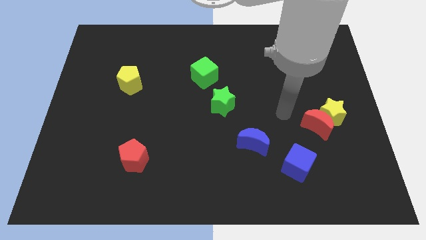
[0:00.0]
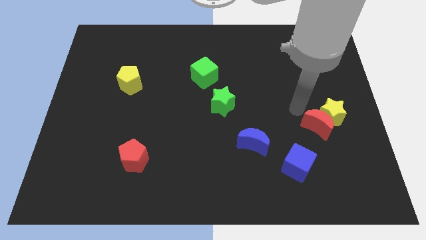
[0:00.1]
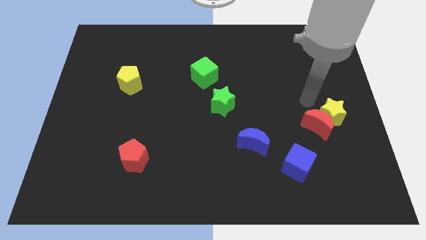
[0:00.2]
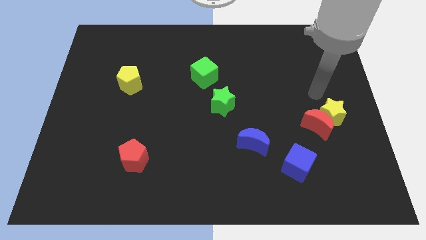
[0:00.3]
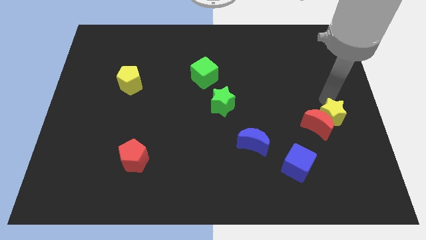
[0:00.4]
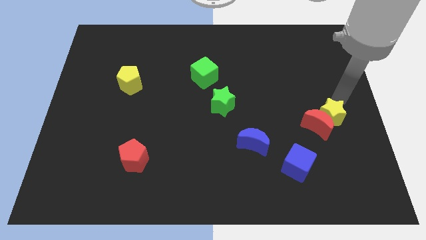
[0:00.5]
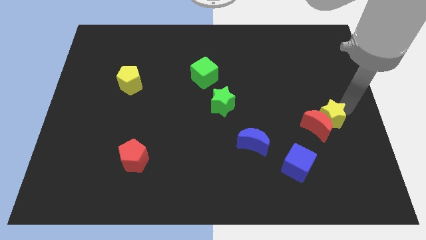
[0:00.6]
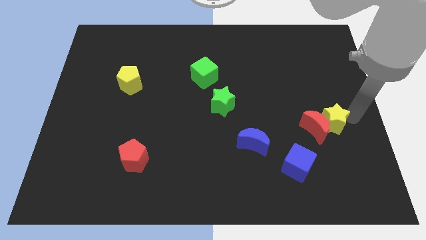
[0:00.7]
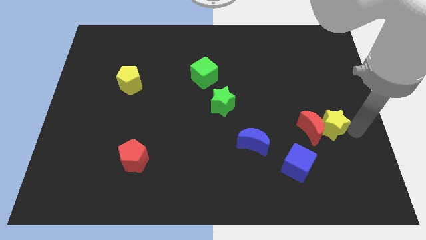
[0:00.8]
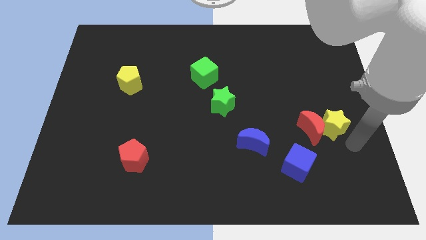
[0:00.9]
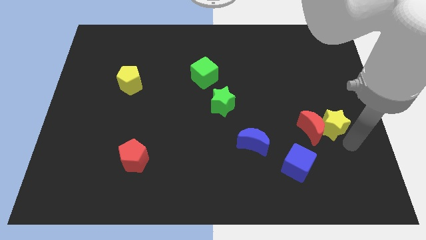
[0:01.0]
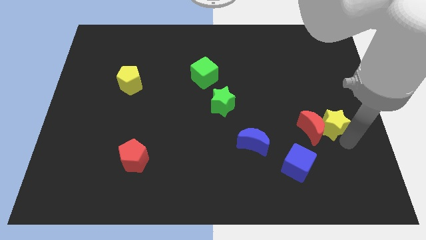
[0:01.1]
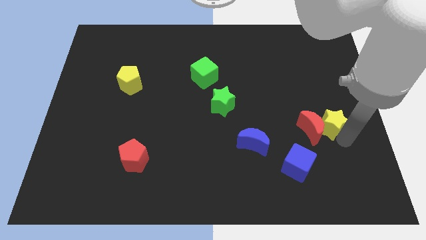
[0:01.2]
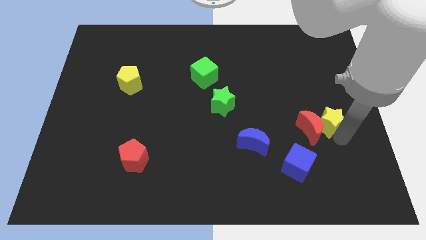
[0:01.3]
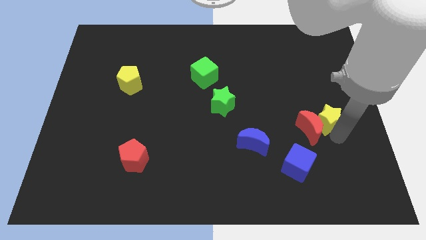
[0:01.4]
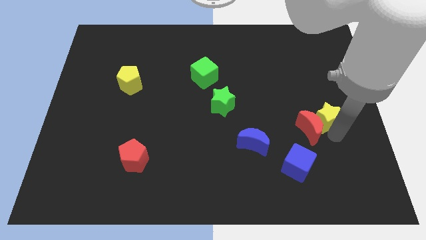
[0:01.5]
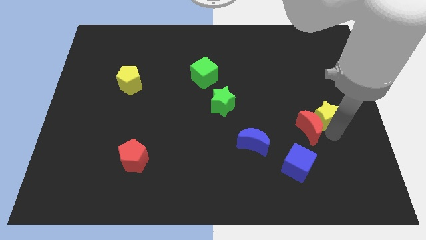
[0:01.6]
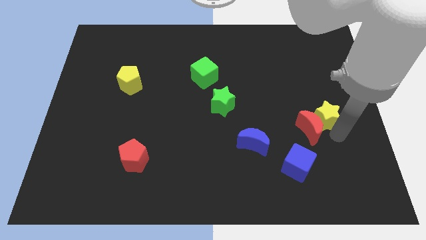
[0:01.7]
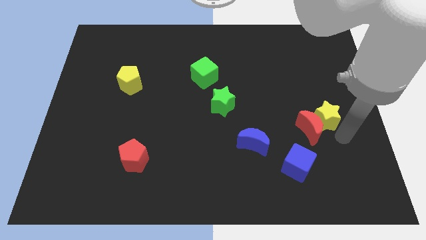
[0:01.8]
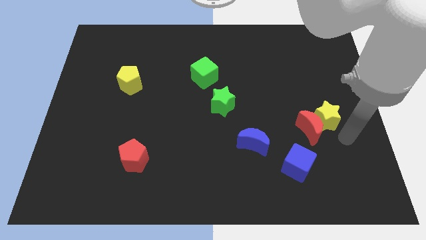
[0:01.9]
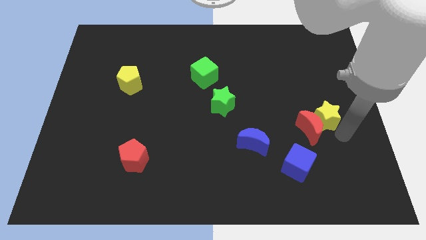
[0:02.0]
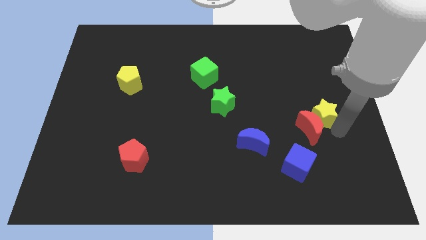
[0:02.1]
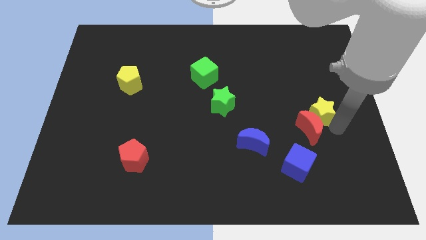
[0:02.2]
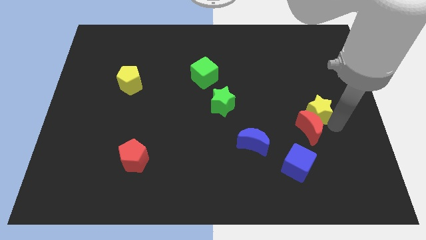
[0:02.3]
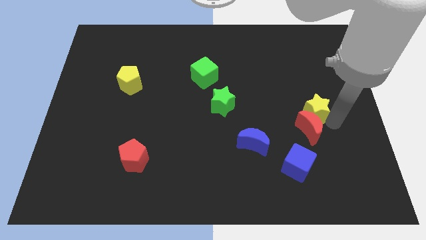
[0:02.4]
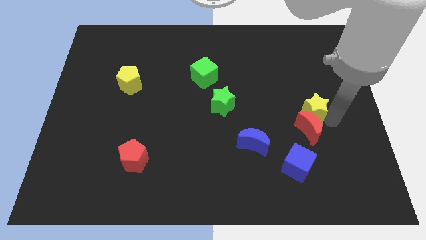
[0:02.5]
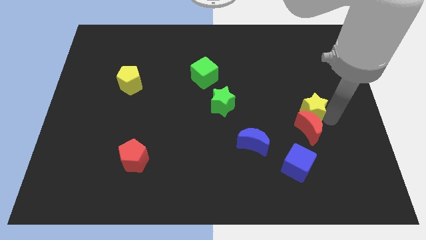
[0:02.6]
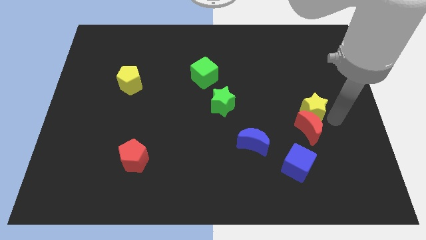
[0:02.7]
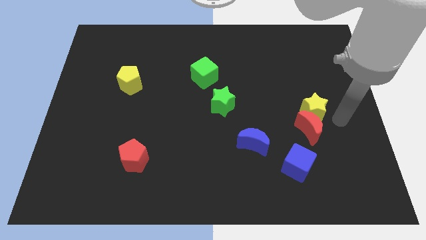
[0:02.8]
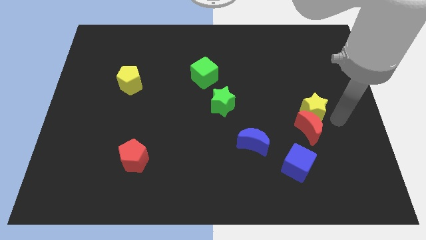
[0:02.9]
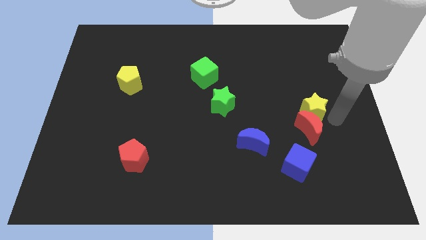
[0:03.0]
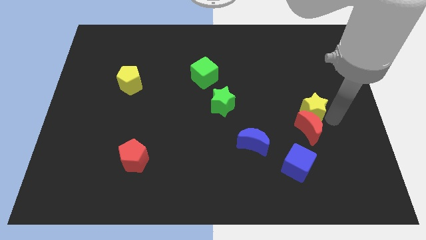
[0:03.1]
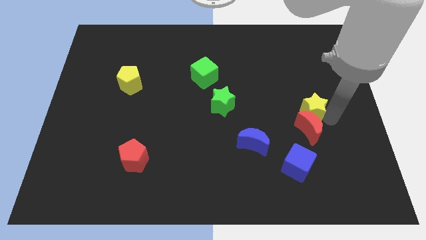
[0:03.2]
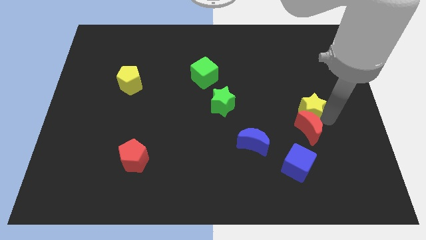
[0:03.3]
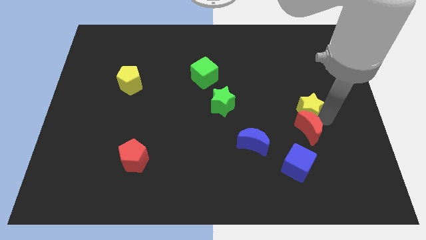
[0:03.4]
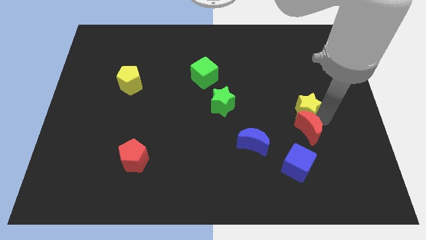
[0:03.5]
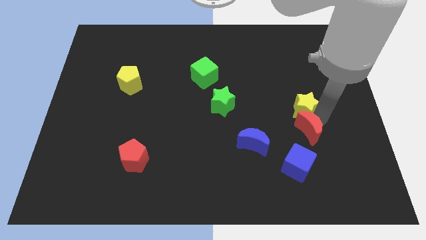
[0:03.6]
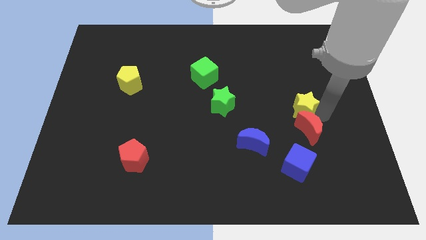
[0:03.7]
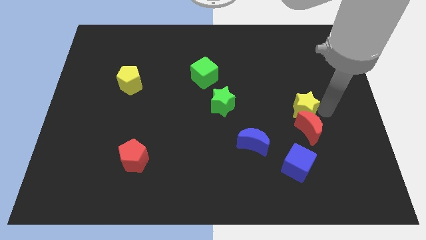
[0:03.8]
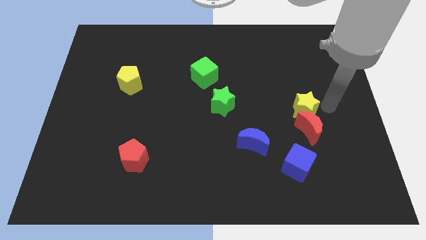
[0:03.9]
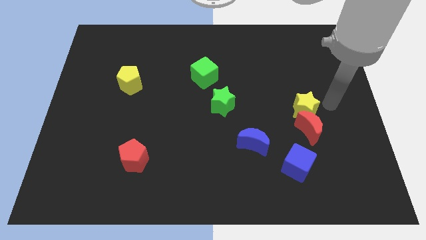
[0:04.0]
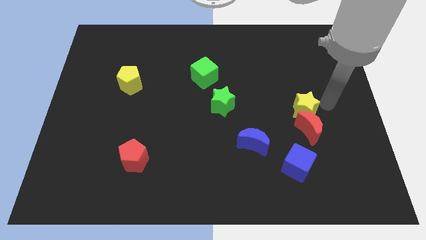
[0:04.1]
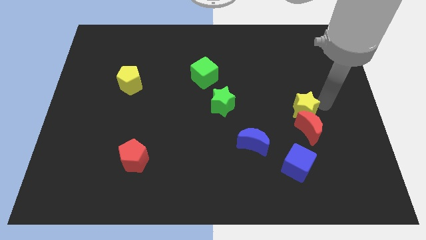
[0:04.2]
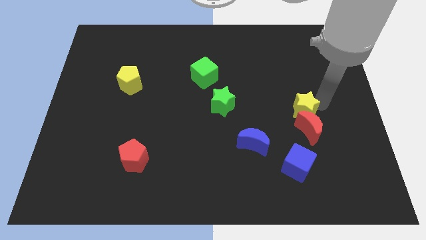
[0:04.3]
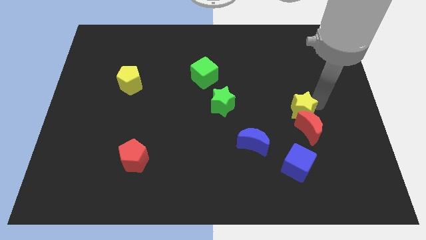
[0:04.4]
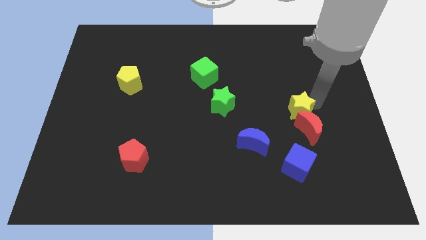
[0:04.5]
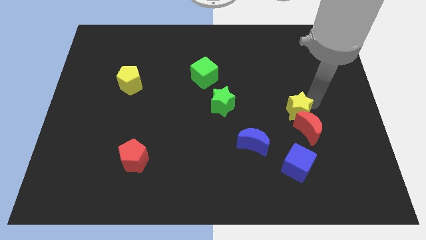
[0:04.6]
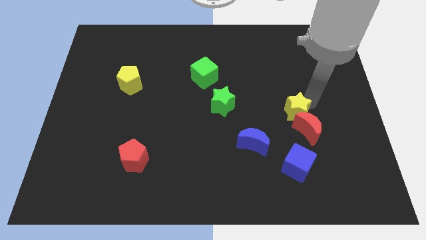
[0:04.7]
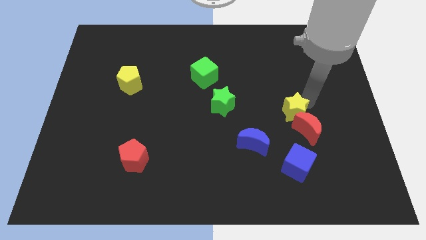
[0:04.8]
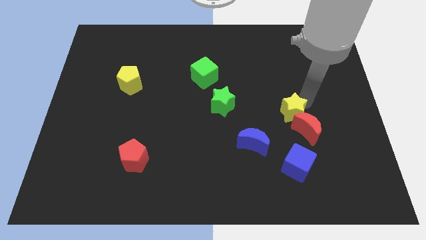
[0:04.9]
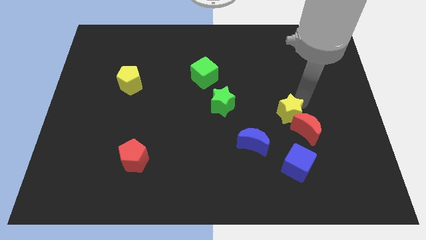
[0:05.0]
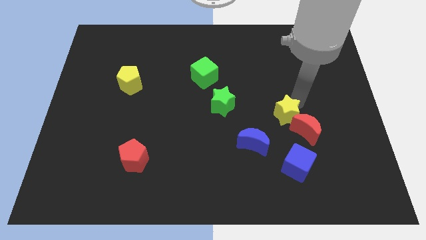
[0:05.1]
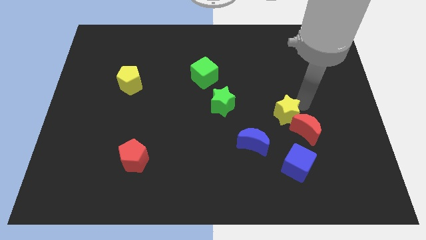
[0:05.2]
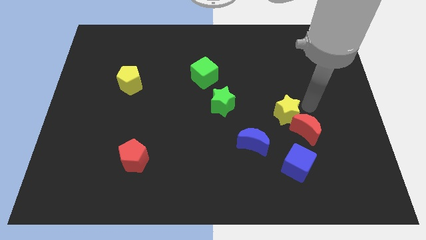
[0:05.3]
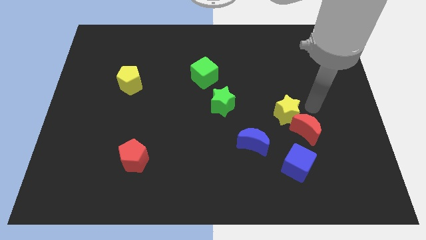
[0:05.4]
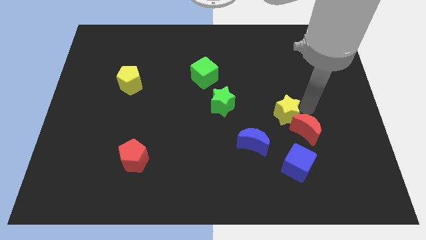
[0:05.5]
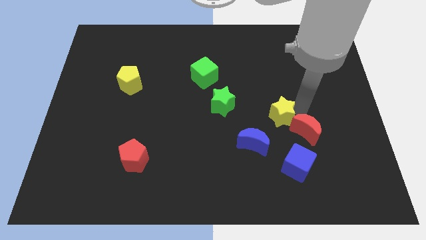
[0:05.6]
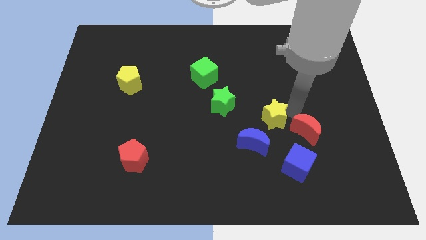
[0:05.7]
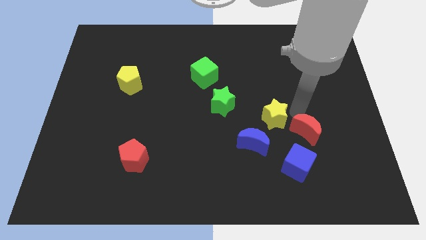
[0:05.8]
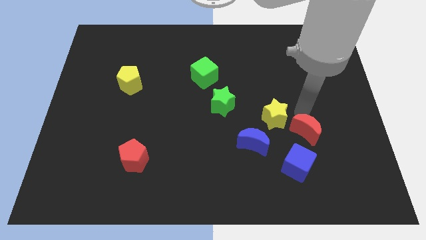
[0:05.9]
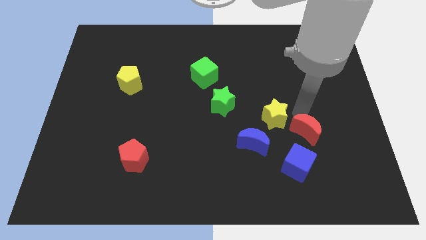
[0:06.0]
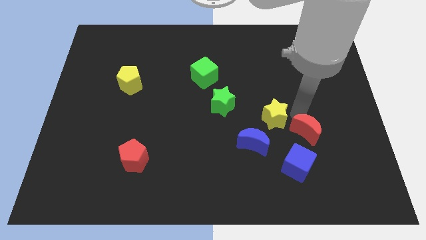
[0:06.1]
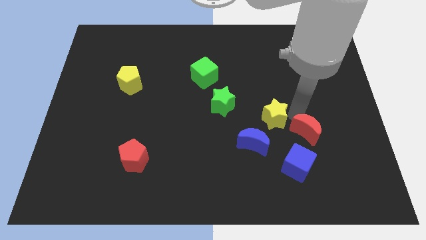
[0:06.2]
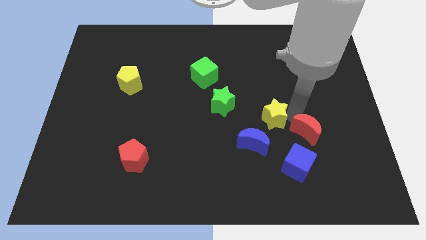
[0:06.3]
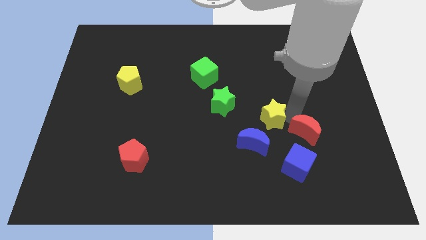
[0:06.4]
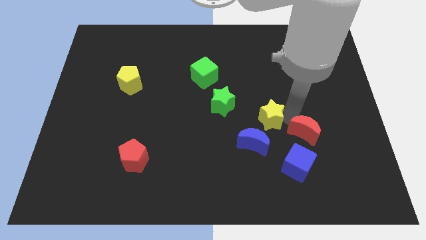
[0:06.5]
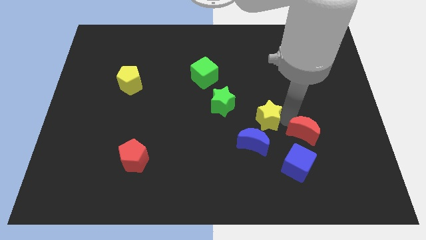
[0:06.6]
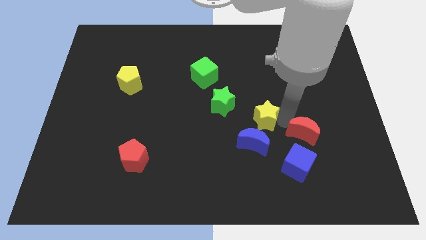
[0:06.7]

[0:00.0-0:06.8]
push the yellow star to the bottom right side of the green star
